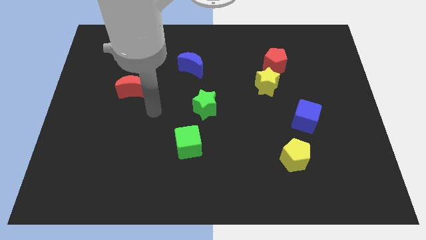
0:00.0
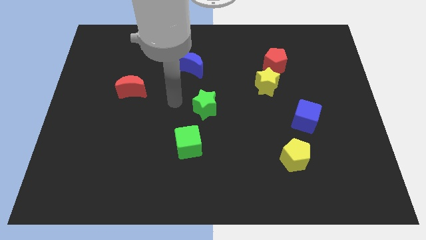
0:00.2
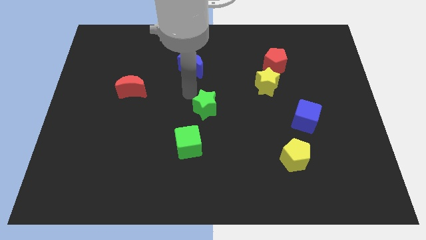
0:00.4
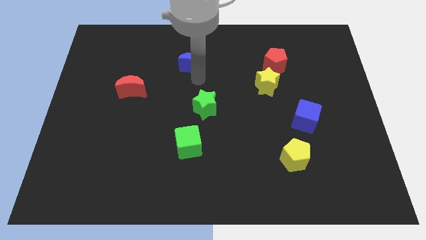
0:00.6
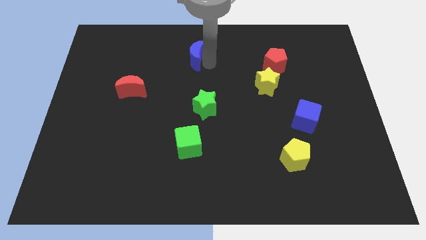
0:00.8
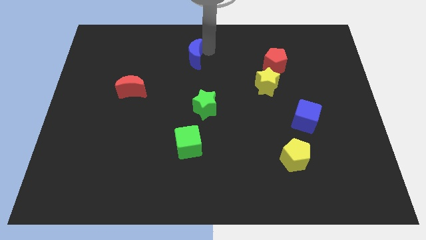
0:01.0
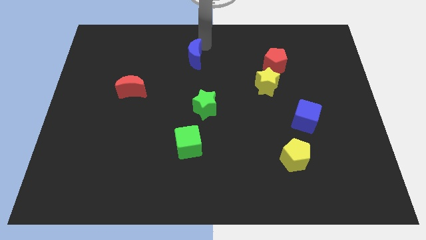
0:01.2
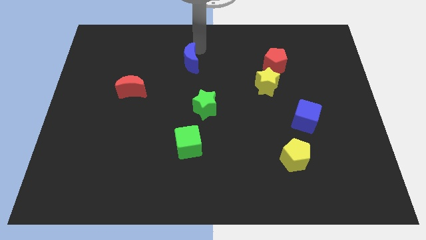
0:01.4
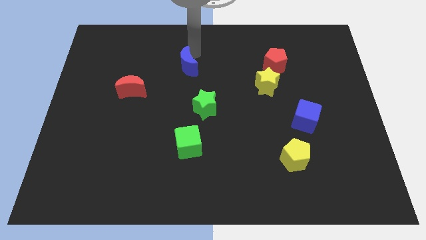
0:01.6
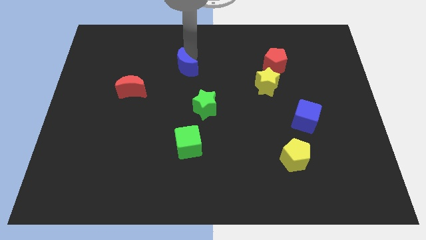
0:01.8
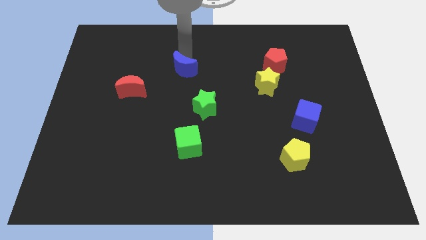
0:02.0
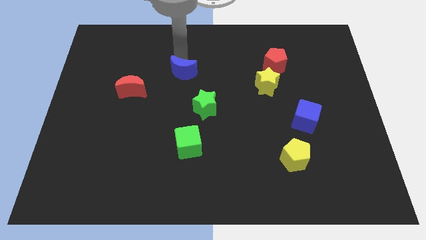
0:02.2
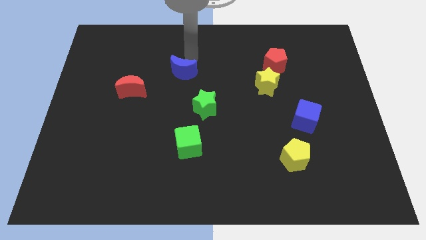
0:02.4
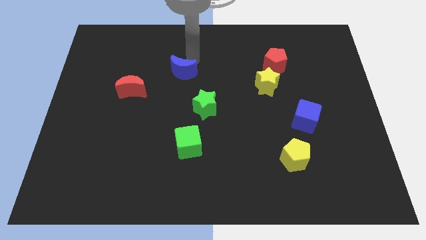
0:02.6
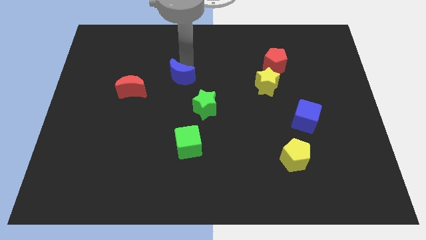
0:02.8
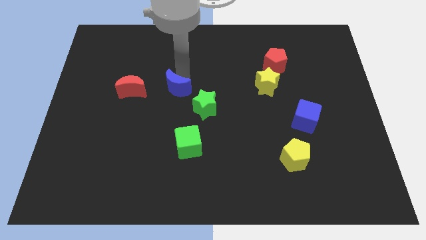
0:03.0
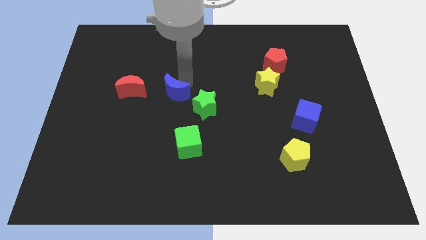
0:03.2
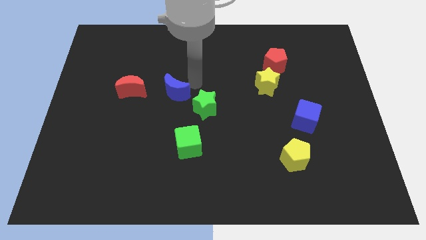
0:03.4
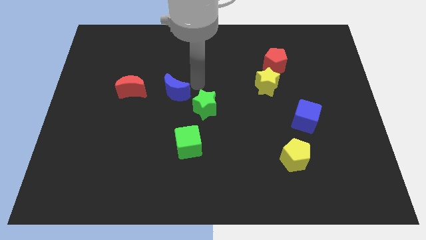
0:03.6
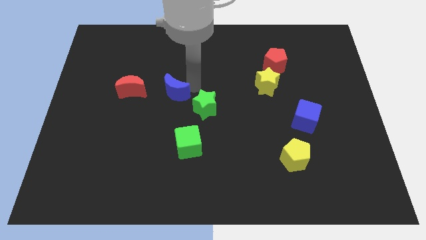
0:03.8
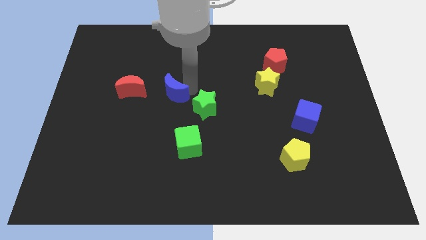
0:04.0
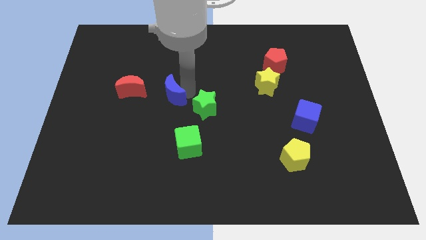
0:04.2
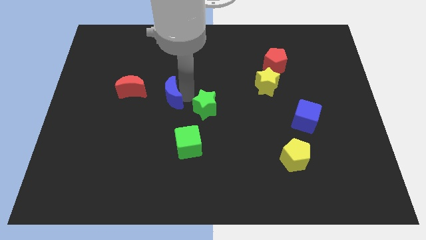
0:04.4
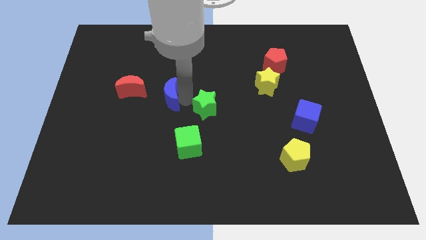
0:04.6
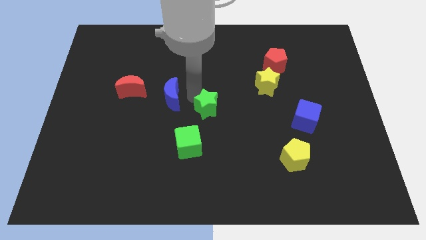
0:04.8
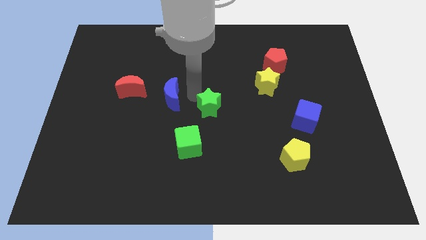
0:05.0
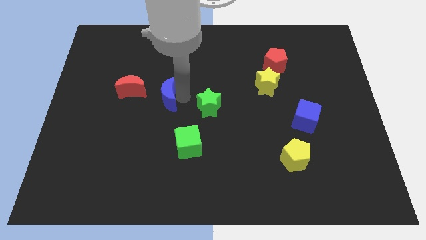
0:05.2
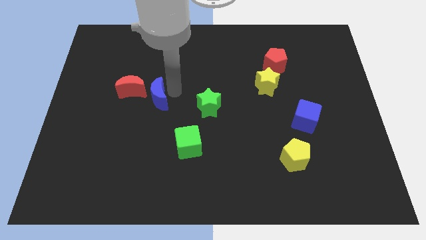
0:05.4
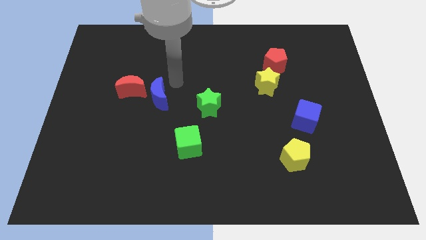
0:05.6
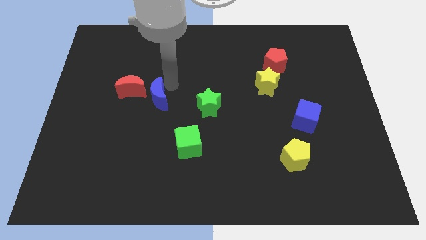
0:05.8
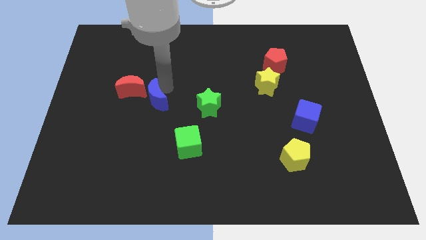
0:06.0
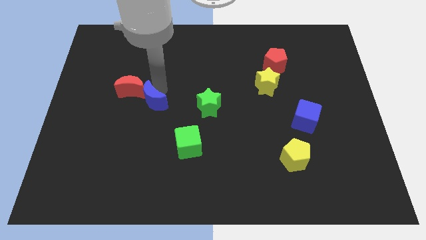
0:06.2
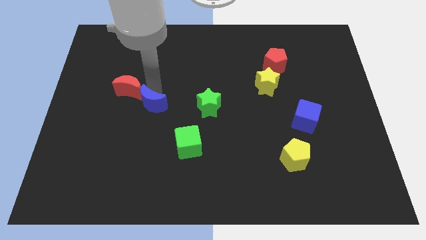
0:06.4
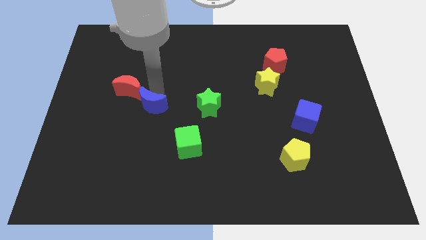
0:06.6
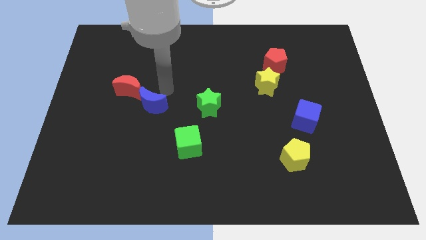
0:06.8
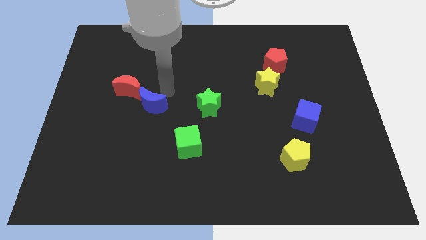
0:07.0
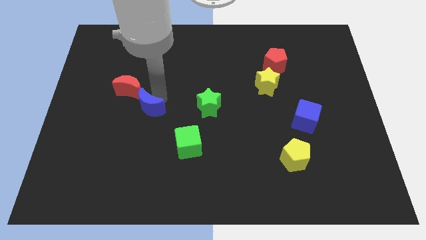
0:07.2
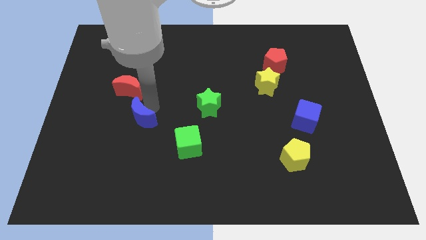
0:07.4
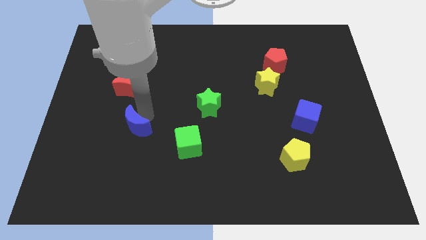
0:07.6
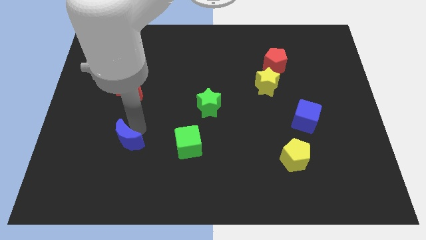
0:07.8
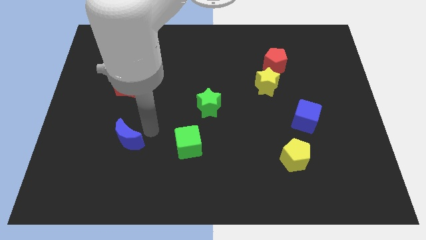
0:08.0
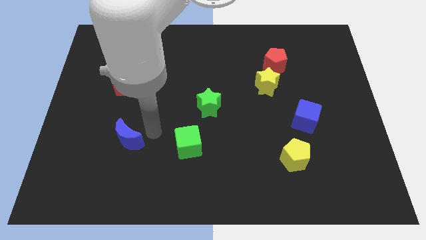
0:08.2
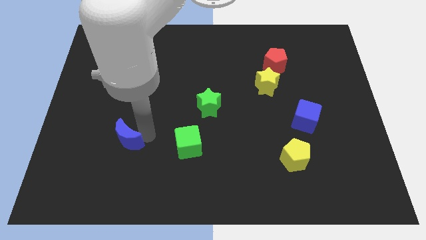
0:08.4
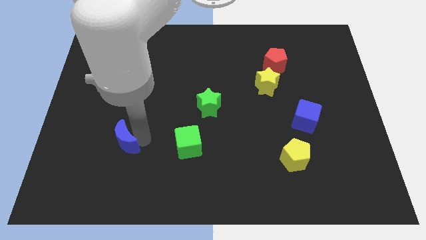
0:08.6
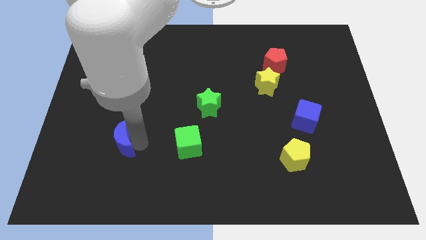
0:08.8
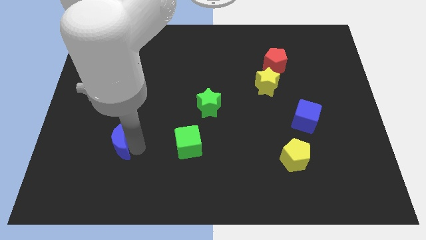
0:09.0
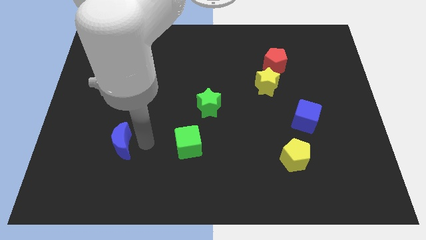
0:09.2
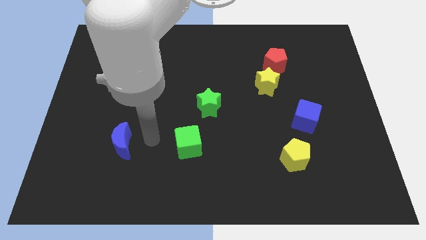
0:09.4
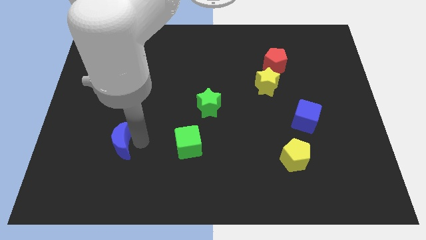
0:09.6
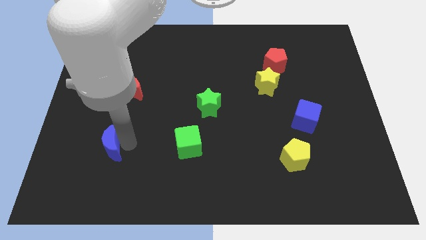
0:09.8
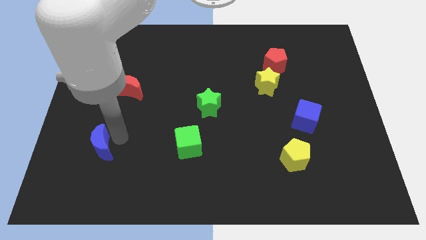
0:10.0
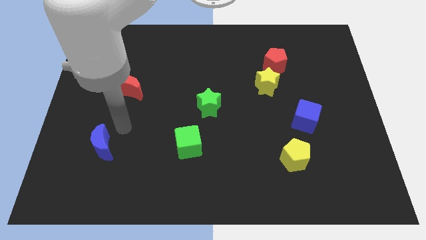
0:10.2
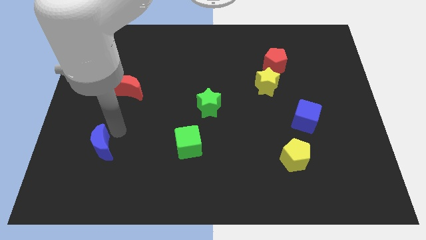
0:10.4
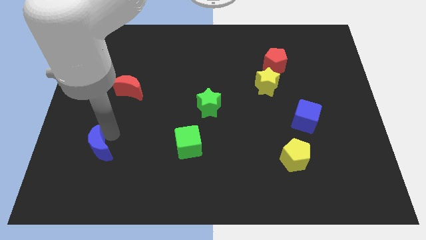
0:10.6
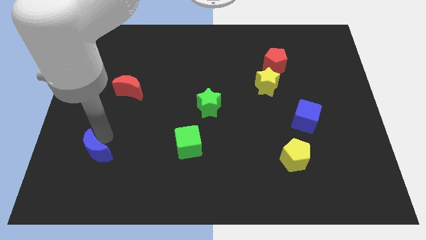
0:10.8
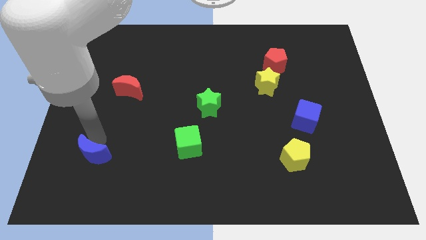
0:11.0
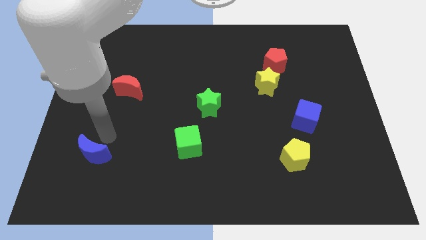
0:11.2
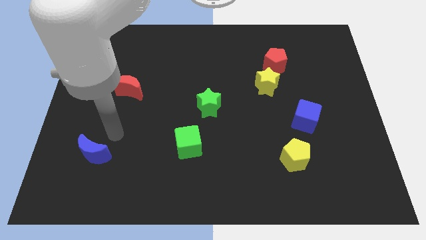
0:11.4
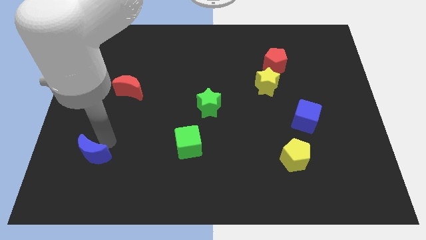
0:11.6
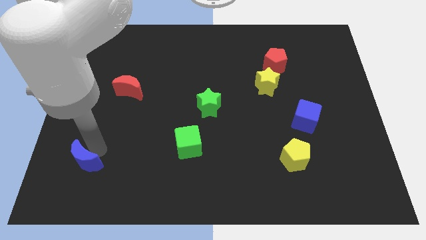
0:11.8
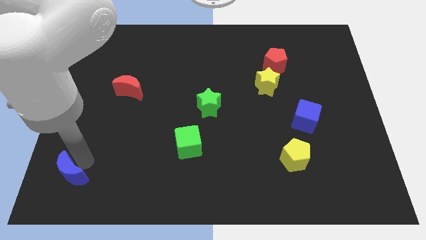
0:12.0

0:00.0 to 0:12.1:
push the blue moon to the lower left corner
